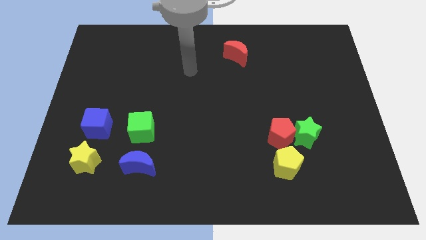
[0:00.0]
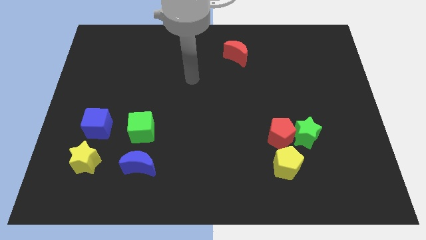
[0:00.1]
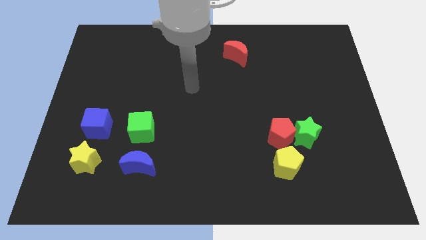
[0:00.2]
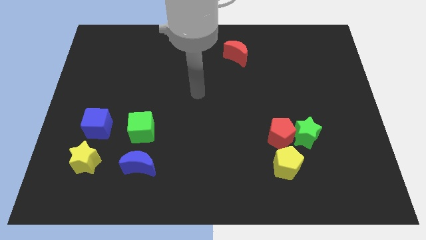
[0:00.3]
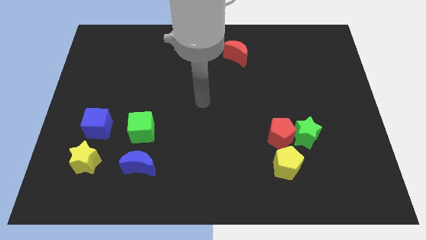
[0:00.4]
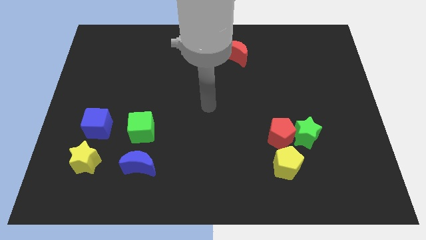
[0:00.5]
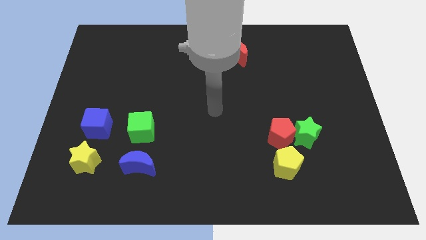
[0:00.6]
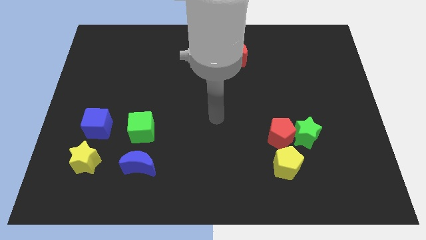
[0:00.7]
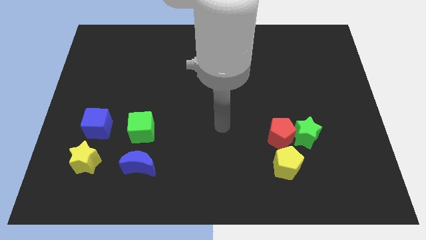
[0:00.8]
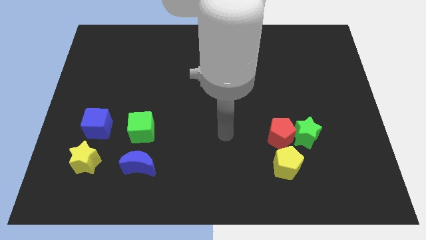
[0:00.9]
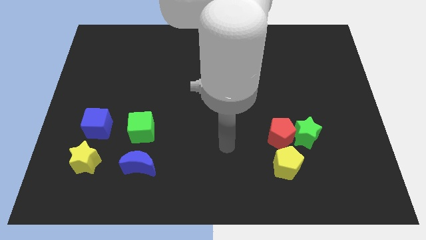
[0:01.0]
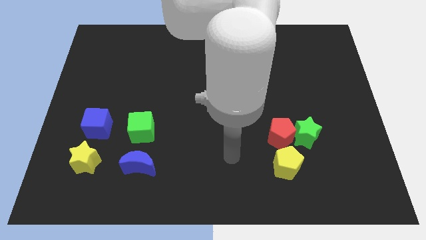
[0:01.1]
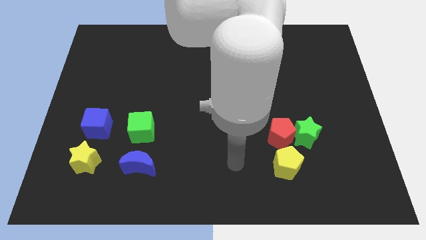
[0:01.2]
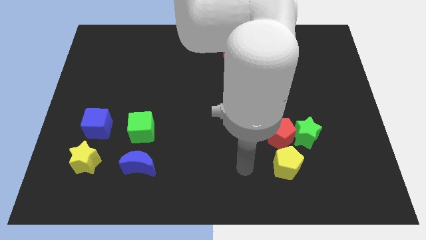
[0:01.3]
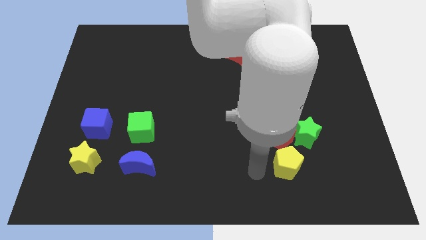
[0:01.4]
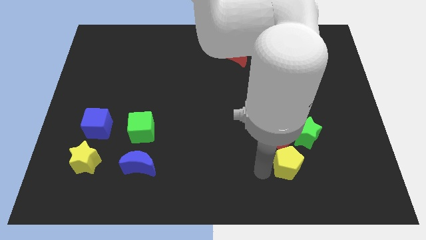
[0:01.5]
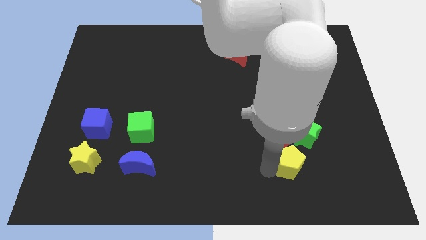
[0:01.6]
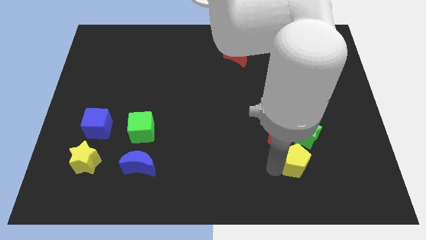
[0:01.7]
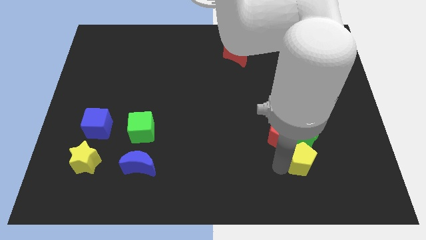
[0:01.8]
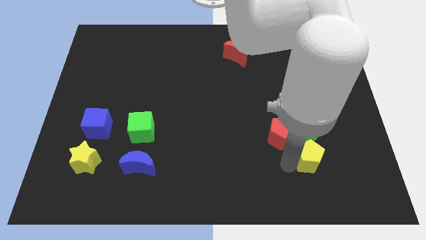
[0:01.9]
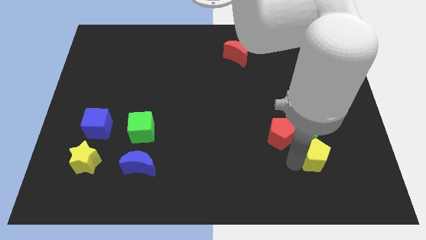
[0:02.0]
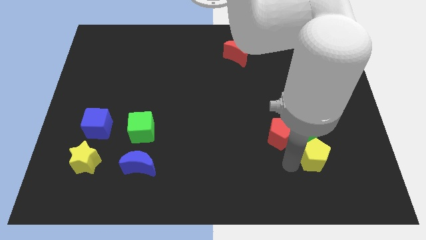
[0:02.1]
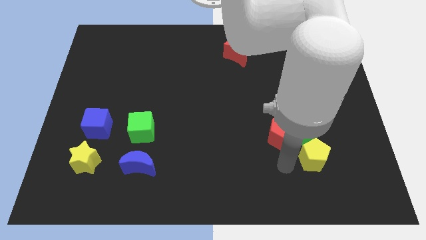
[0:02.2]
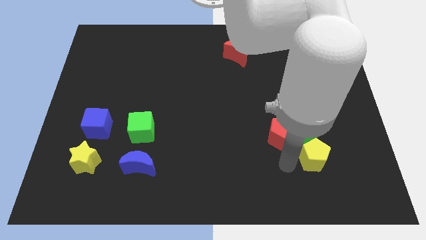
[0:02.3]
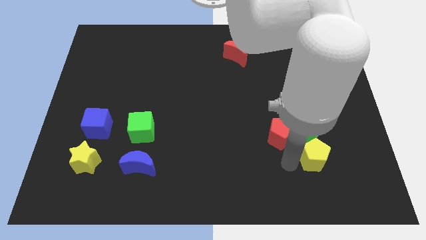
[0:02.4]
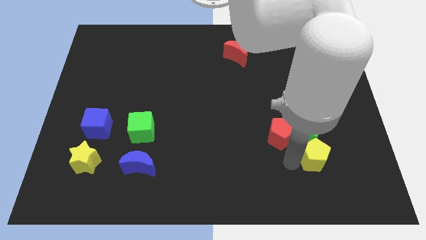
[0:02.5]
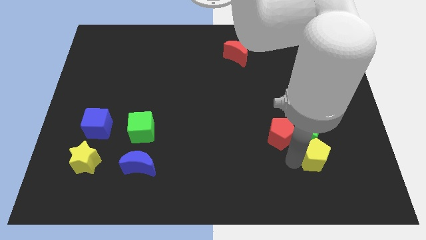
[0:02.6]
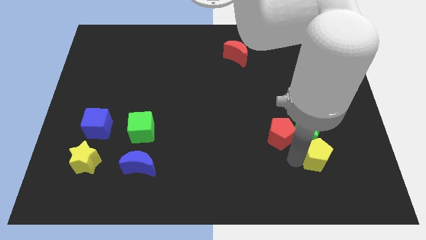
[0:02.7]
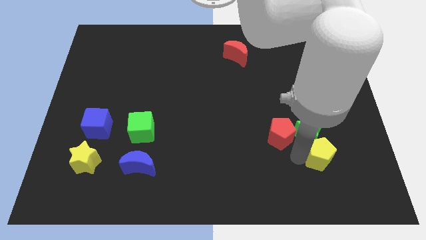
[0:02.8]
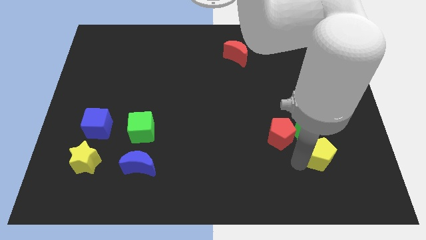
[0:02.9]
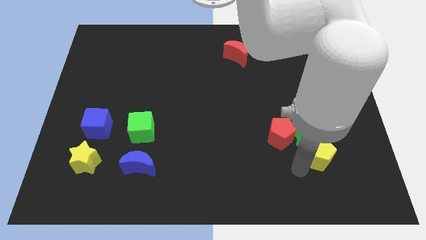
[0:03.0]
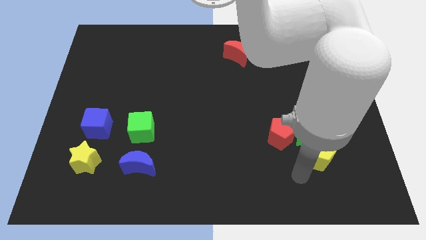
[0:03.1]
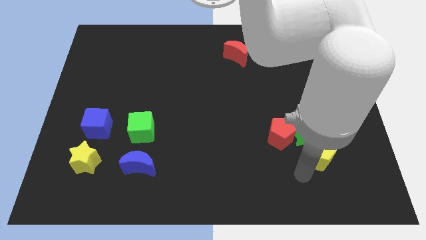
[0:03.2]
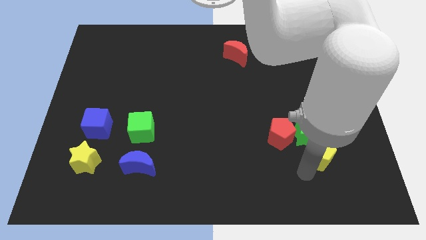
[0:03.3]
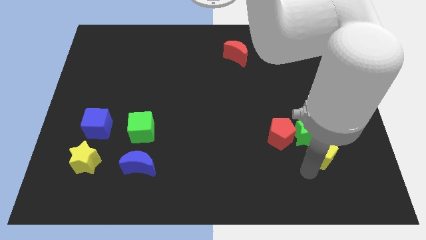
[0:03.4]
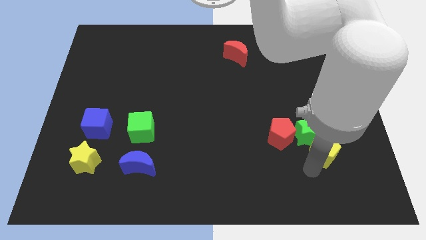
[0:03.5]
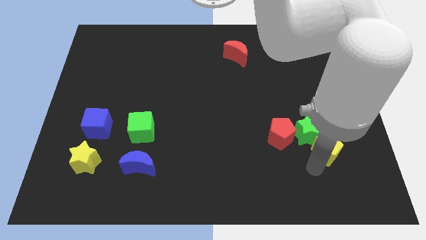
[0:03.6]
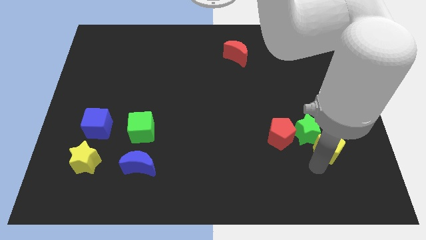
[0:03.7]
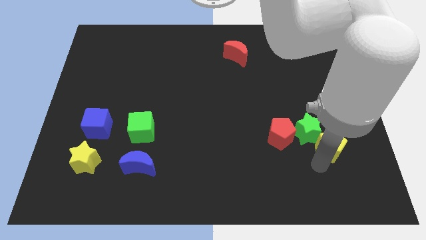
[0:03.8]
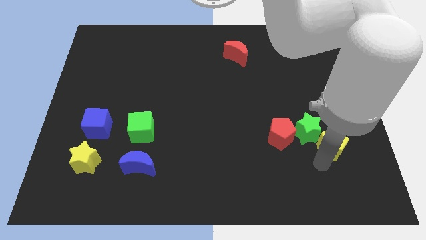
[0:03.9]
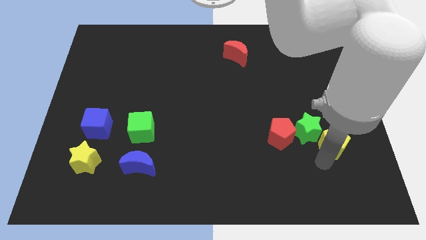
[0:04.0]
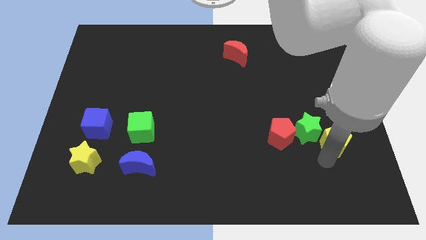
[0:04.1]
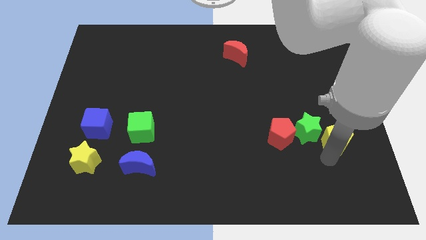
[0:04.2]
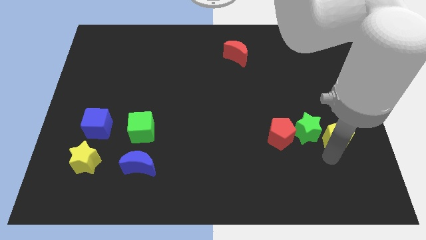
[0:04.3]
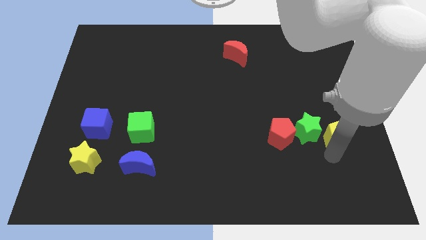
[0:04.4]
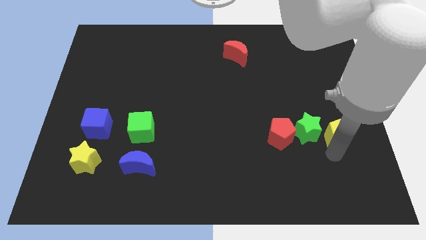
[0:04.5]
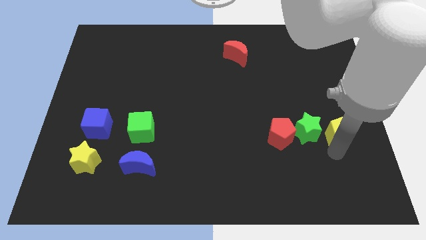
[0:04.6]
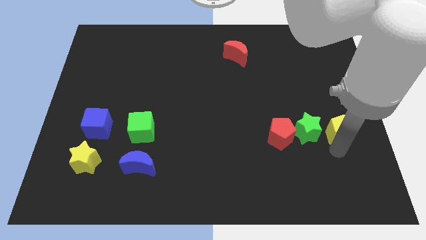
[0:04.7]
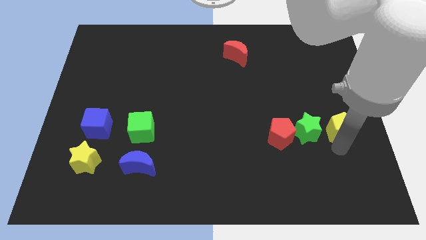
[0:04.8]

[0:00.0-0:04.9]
put the yellow pentagon to the right side

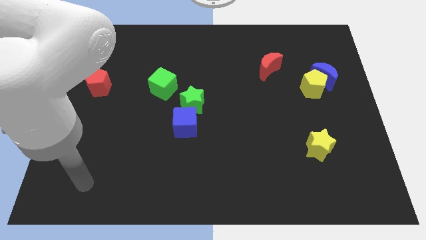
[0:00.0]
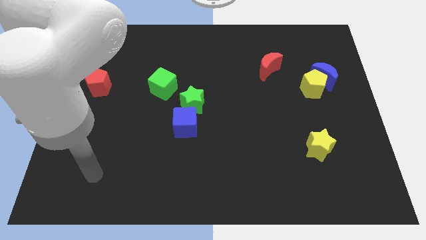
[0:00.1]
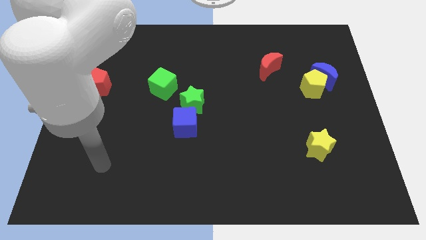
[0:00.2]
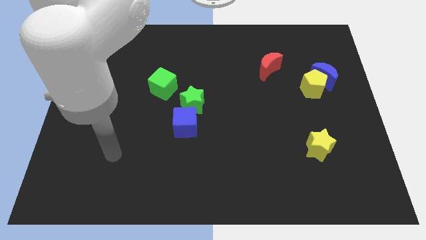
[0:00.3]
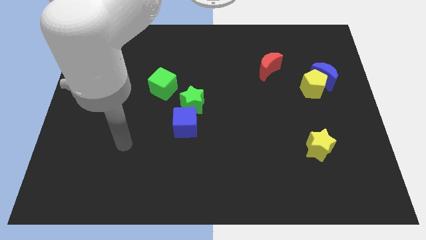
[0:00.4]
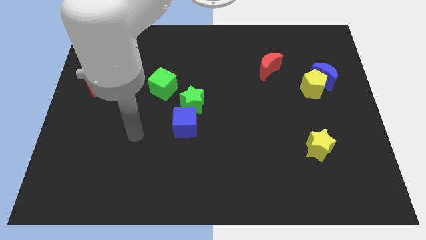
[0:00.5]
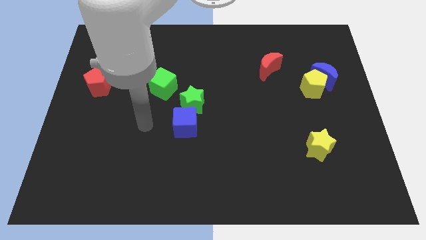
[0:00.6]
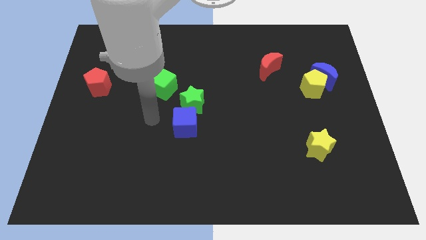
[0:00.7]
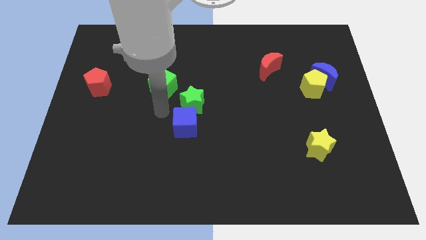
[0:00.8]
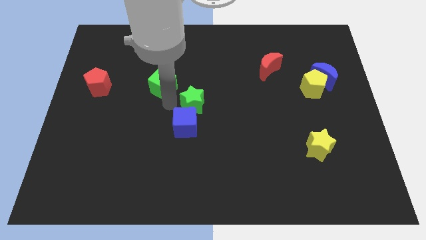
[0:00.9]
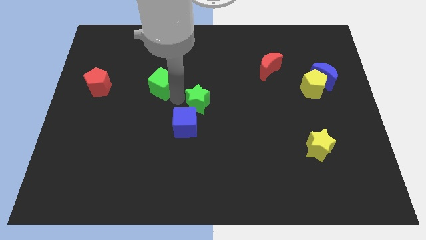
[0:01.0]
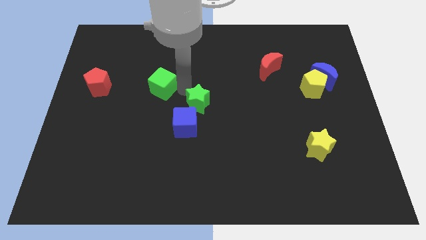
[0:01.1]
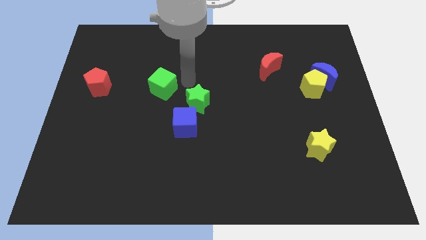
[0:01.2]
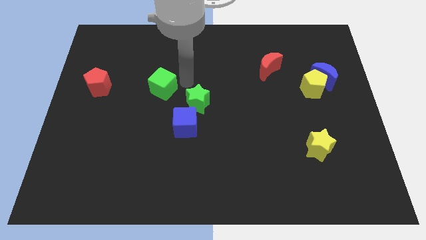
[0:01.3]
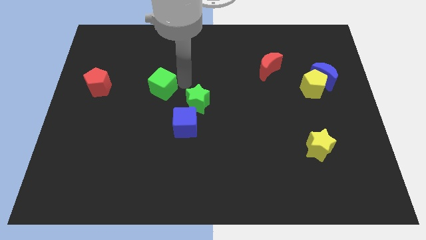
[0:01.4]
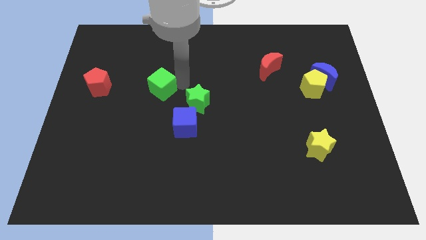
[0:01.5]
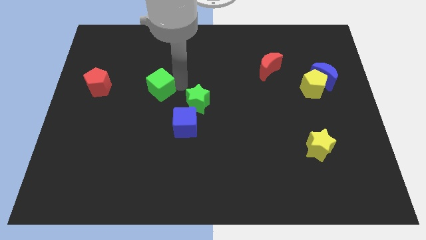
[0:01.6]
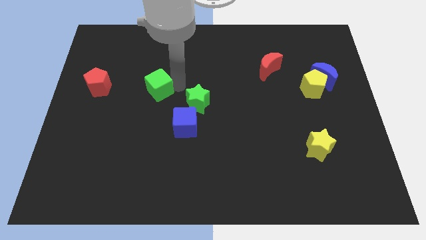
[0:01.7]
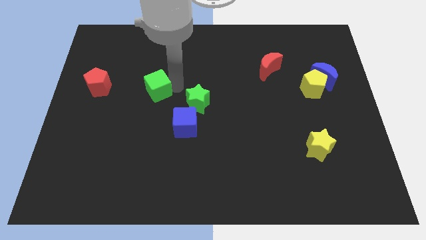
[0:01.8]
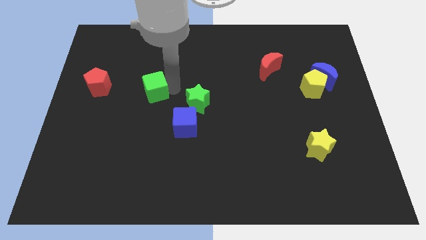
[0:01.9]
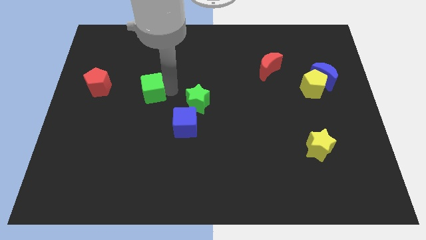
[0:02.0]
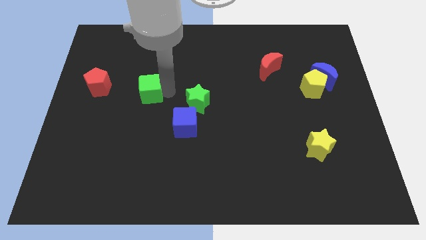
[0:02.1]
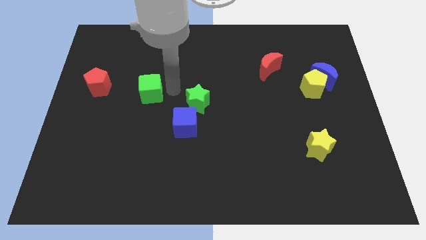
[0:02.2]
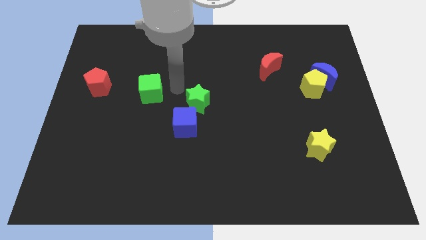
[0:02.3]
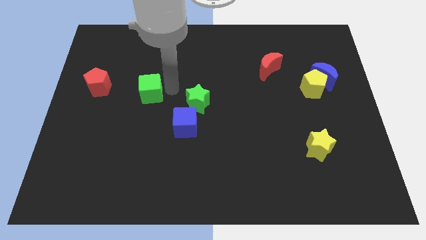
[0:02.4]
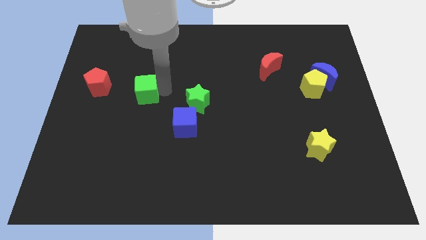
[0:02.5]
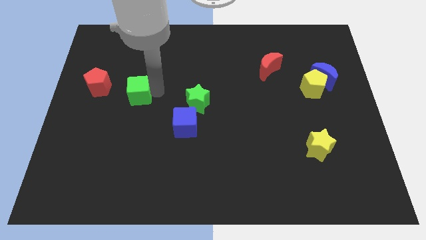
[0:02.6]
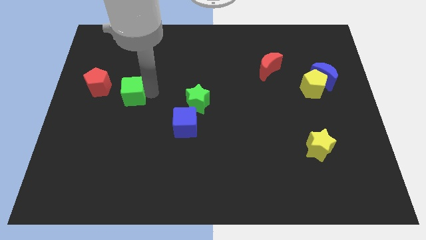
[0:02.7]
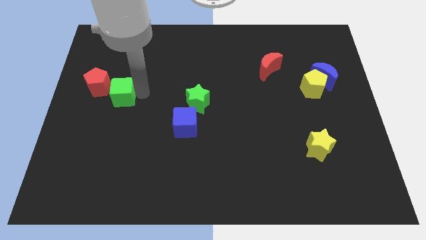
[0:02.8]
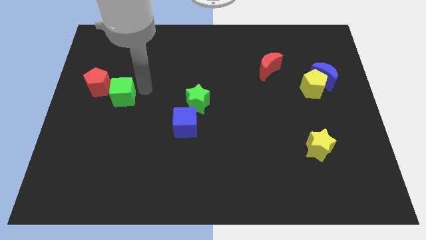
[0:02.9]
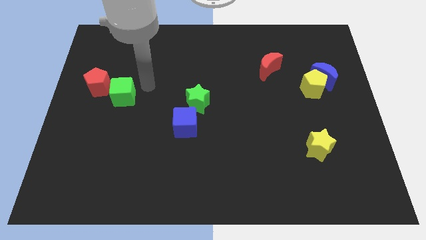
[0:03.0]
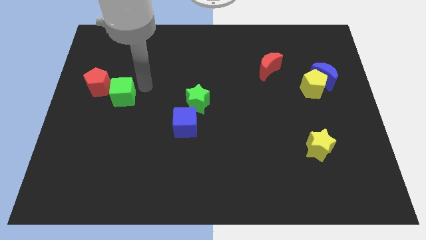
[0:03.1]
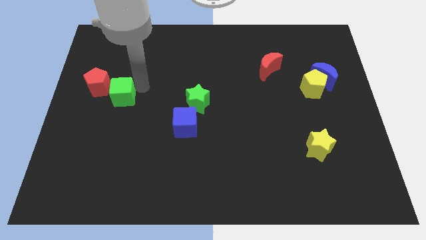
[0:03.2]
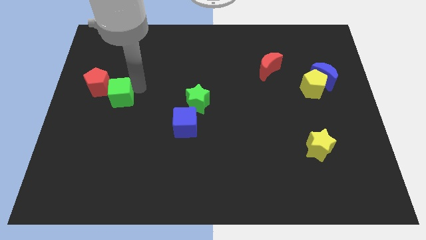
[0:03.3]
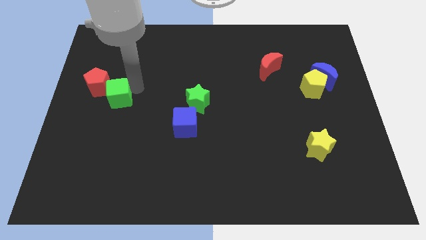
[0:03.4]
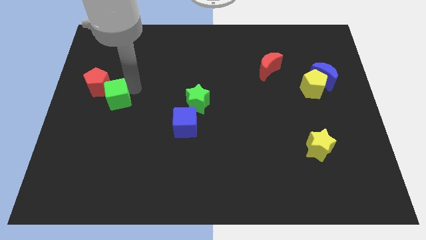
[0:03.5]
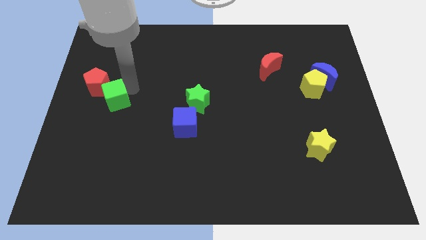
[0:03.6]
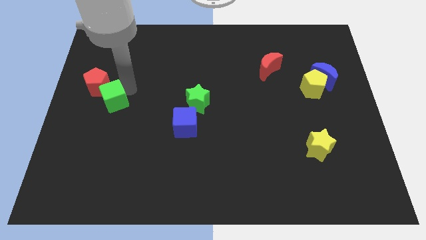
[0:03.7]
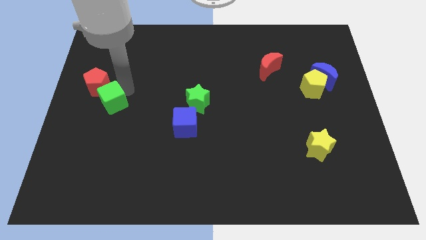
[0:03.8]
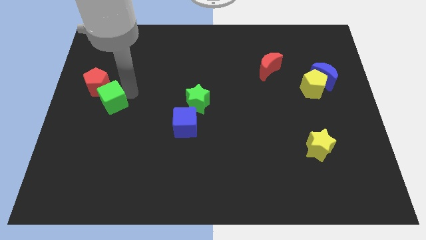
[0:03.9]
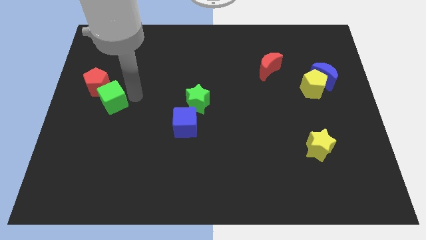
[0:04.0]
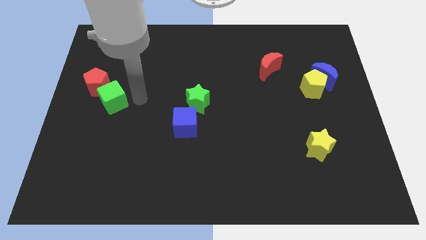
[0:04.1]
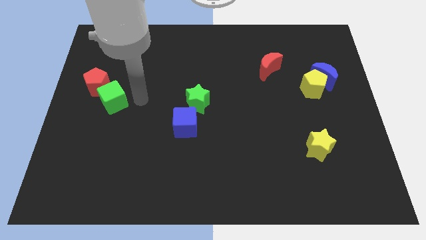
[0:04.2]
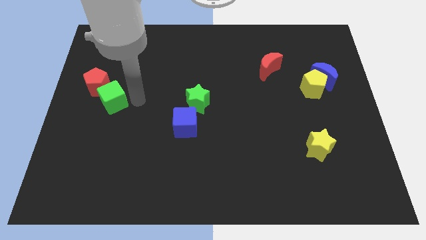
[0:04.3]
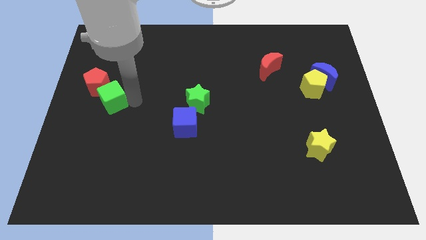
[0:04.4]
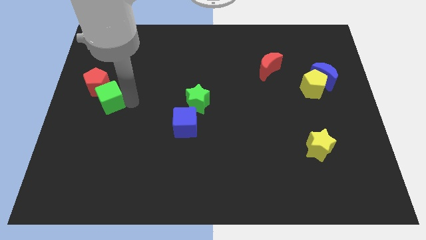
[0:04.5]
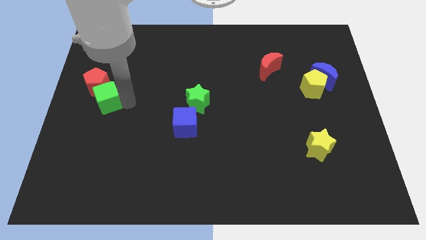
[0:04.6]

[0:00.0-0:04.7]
move the green cube to the left side
